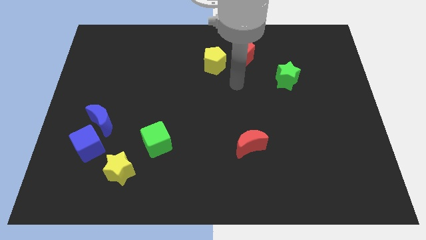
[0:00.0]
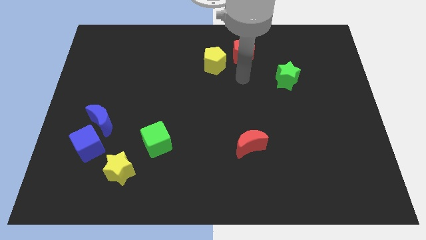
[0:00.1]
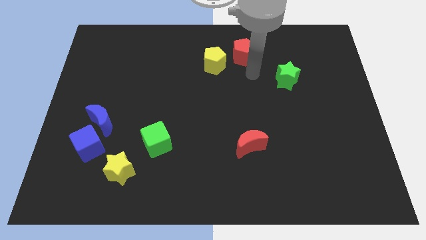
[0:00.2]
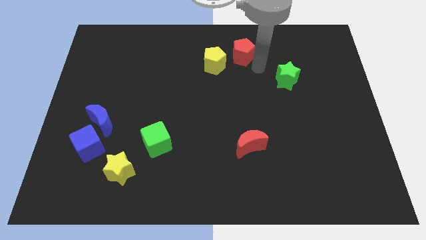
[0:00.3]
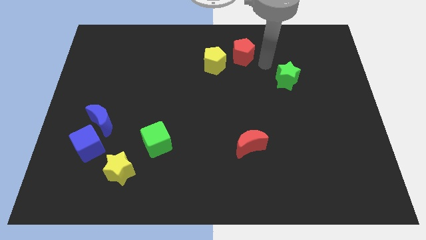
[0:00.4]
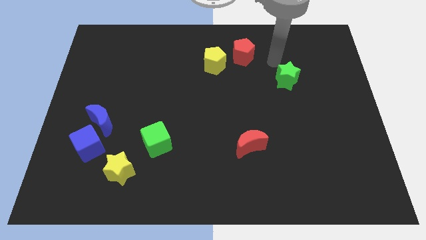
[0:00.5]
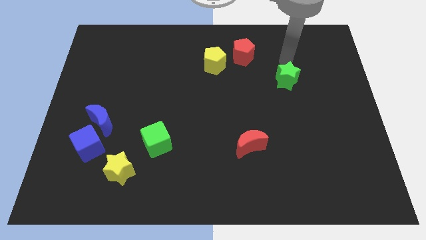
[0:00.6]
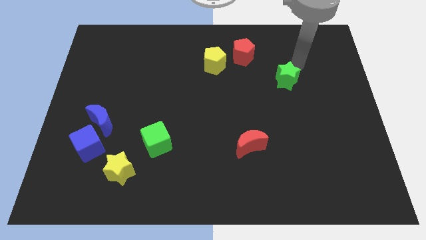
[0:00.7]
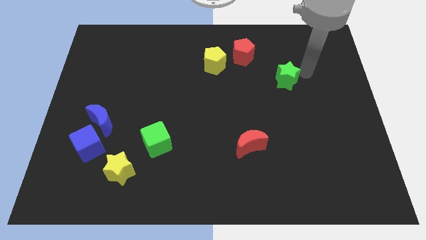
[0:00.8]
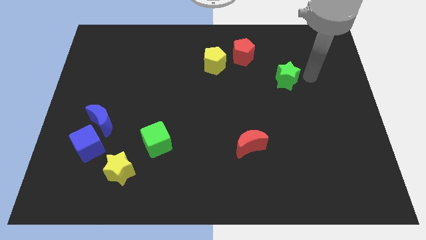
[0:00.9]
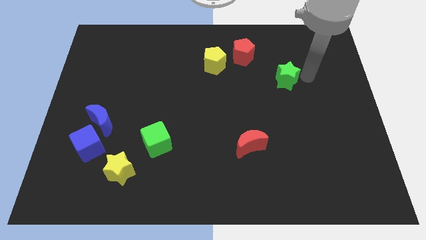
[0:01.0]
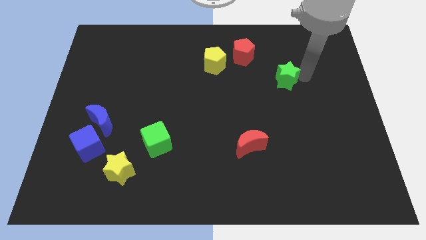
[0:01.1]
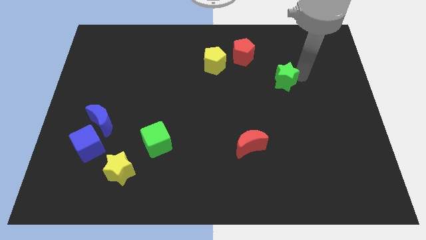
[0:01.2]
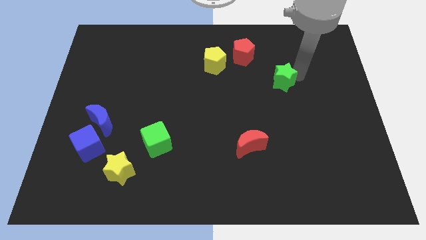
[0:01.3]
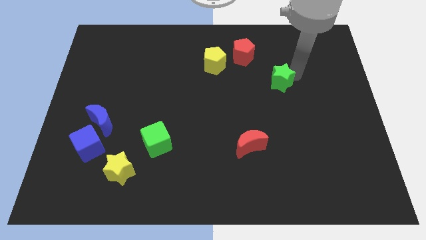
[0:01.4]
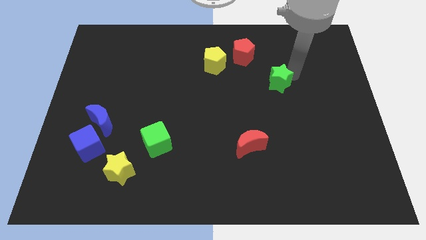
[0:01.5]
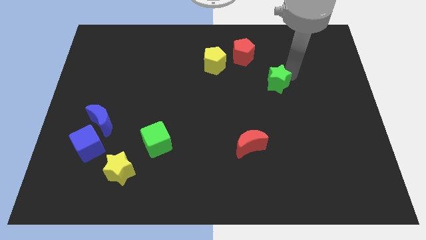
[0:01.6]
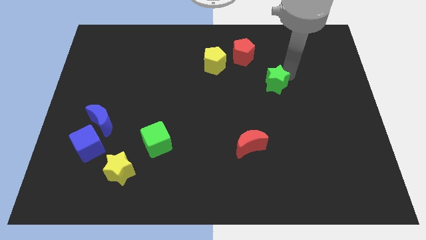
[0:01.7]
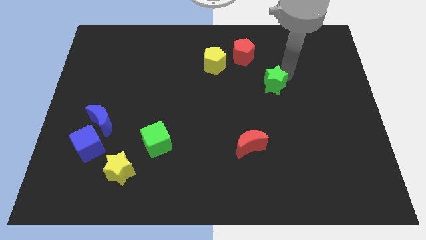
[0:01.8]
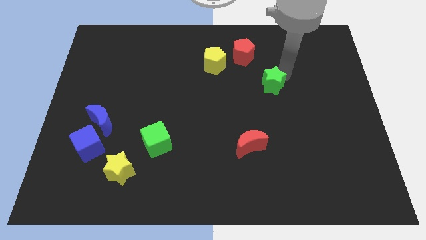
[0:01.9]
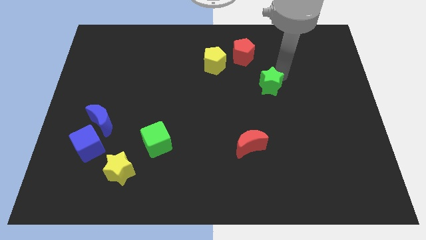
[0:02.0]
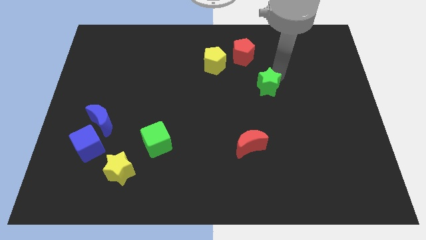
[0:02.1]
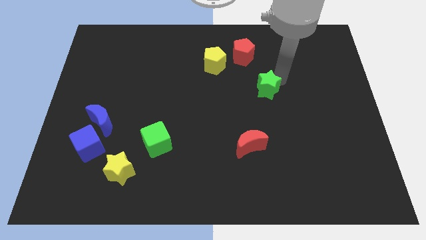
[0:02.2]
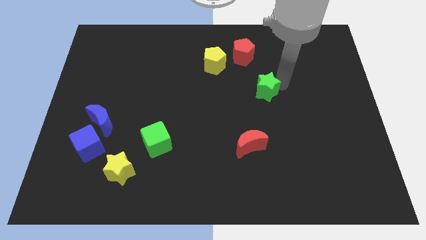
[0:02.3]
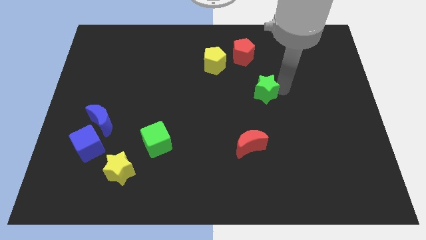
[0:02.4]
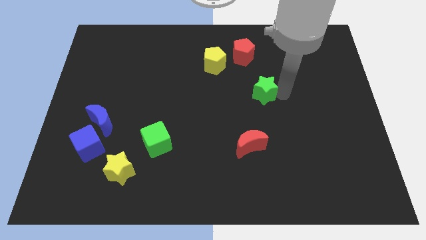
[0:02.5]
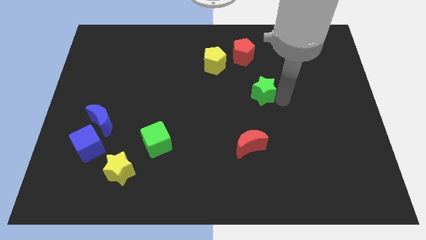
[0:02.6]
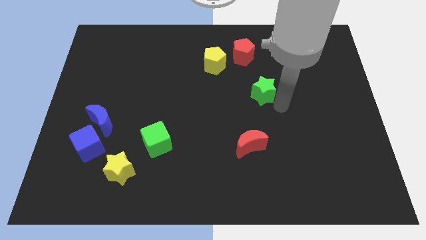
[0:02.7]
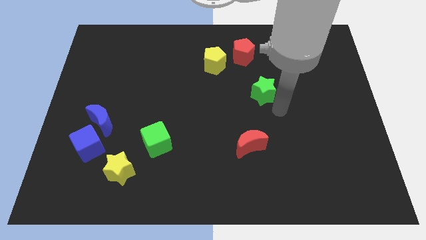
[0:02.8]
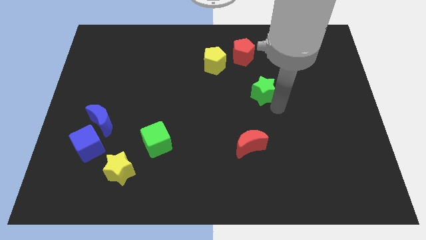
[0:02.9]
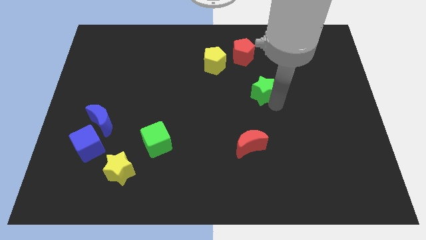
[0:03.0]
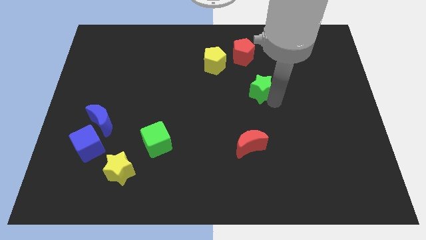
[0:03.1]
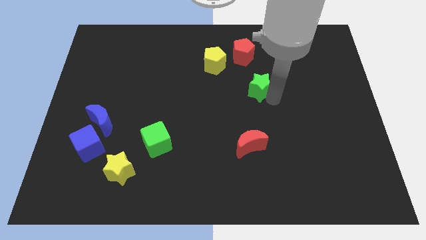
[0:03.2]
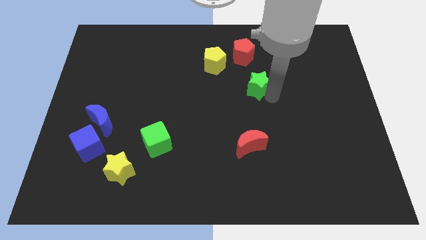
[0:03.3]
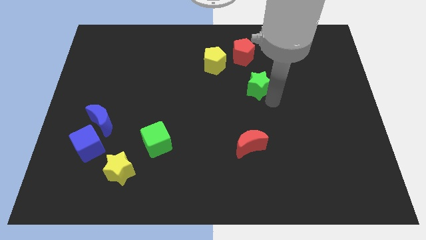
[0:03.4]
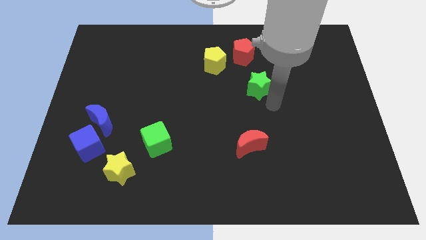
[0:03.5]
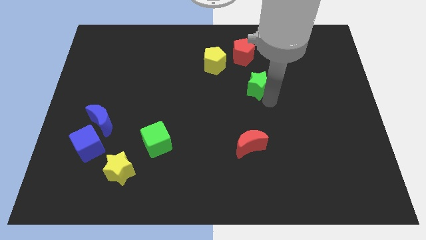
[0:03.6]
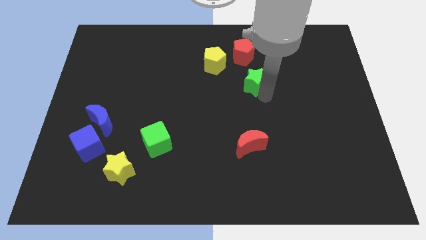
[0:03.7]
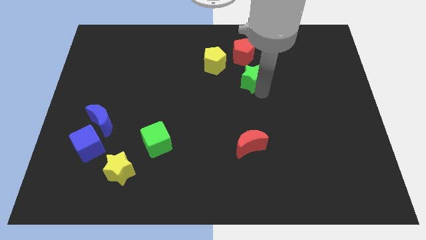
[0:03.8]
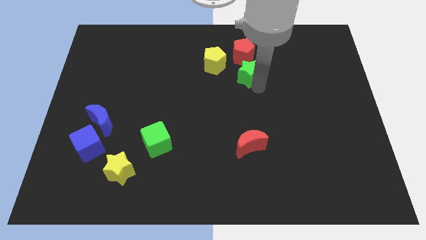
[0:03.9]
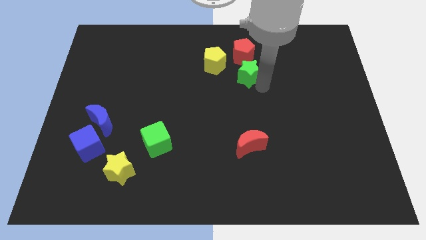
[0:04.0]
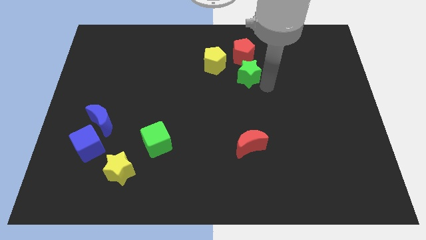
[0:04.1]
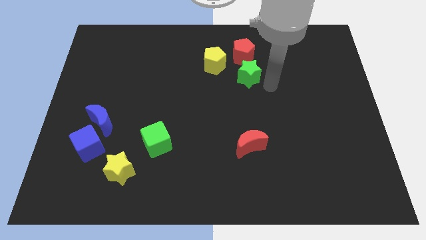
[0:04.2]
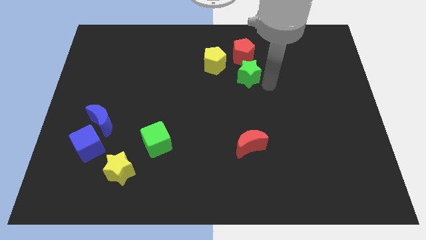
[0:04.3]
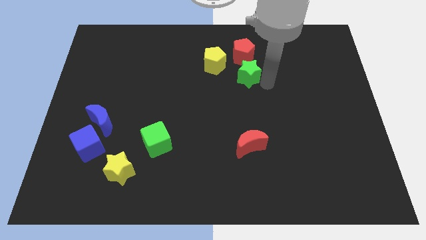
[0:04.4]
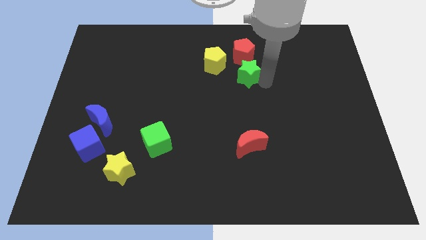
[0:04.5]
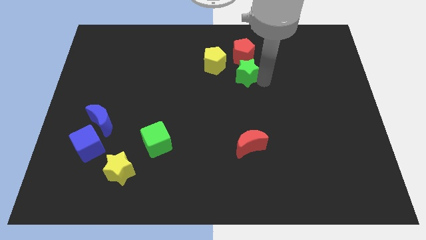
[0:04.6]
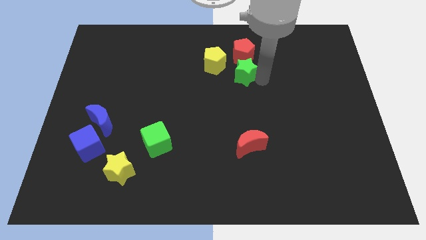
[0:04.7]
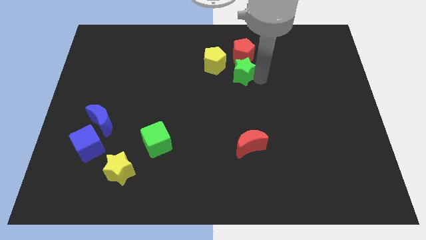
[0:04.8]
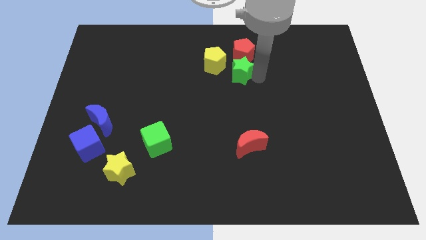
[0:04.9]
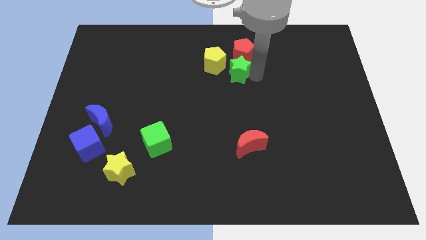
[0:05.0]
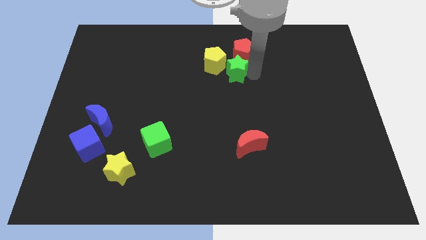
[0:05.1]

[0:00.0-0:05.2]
push the green star close to the yellow pentagon

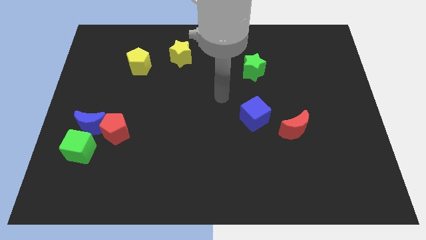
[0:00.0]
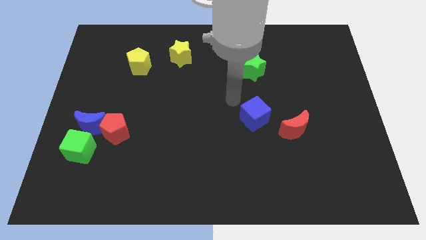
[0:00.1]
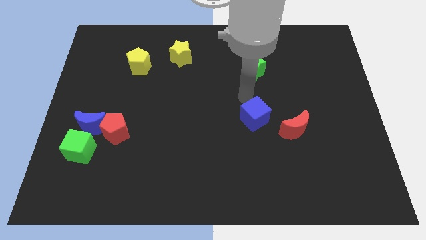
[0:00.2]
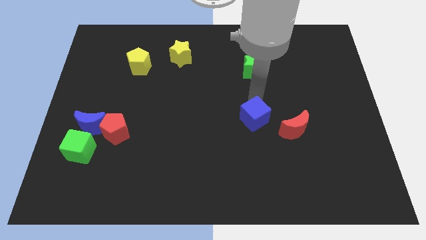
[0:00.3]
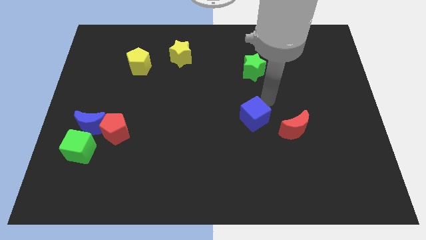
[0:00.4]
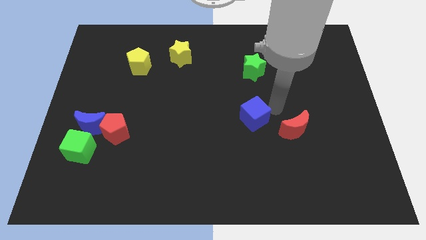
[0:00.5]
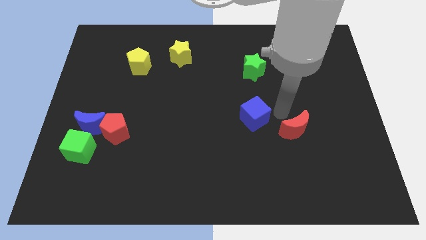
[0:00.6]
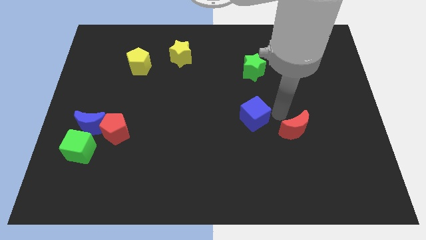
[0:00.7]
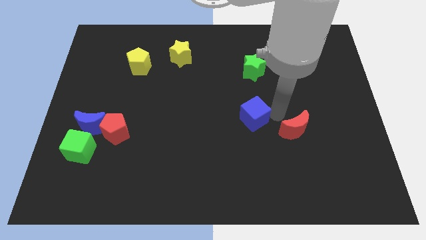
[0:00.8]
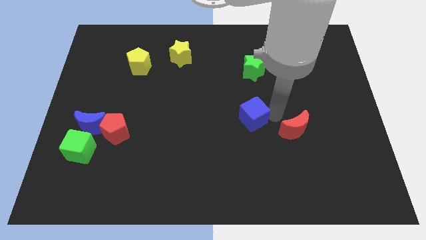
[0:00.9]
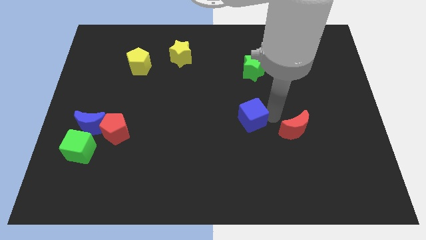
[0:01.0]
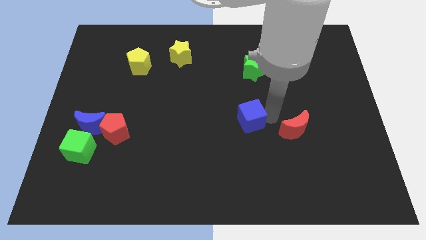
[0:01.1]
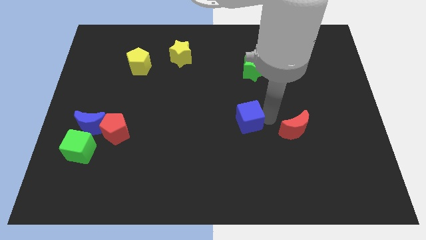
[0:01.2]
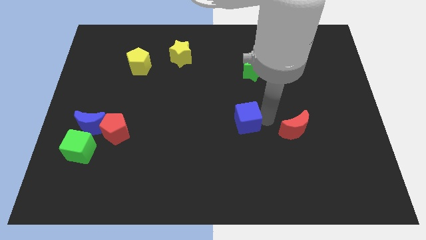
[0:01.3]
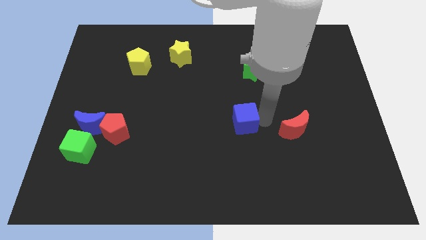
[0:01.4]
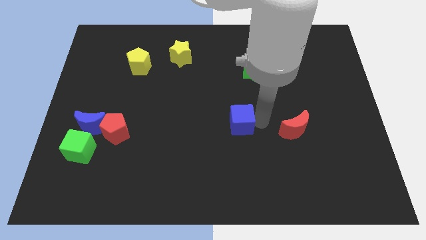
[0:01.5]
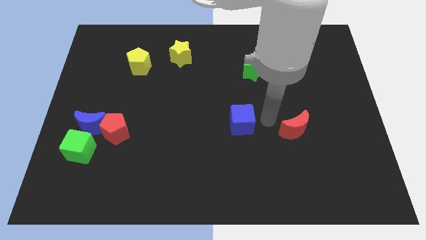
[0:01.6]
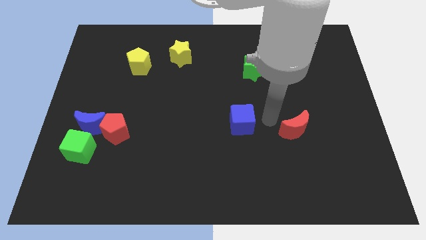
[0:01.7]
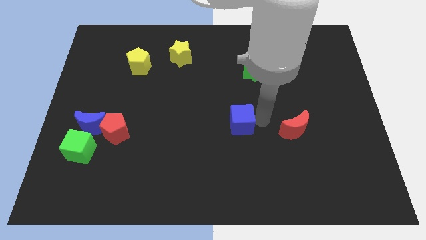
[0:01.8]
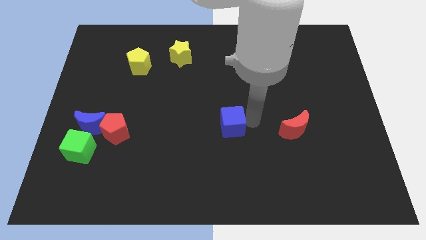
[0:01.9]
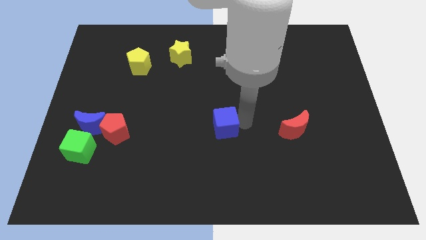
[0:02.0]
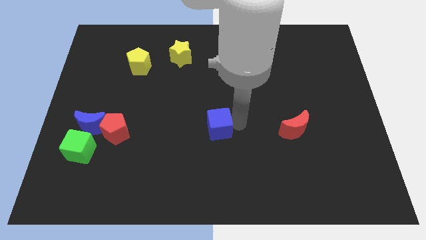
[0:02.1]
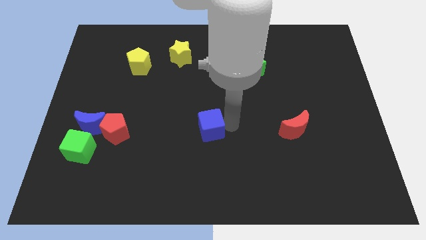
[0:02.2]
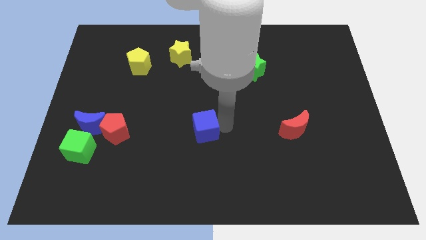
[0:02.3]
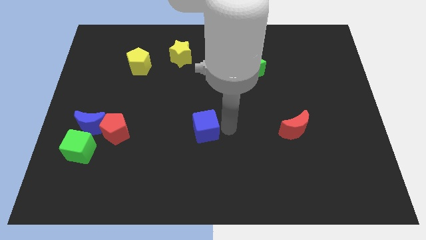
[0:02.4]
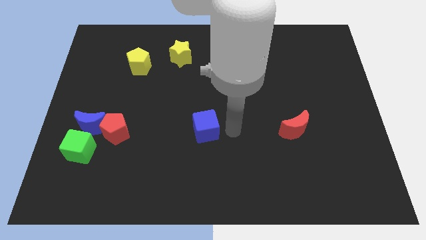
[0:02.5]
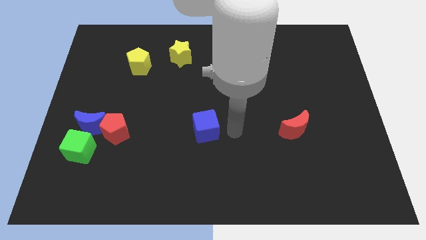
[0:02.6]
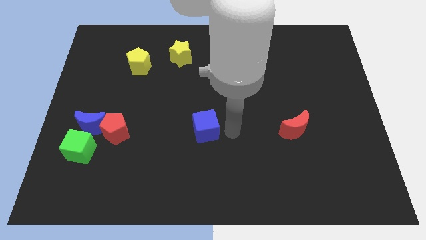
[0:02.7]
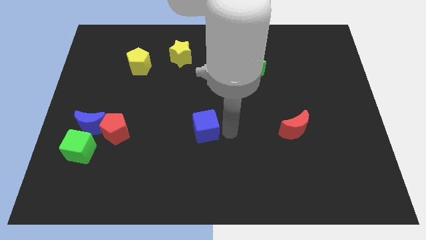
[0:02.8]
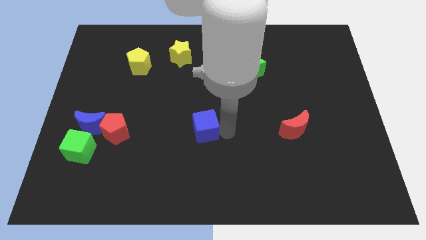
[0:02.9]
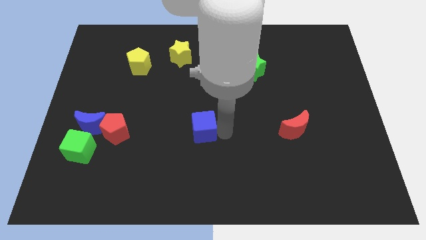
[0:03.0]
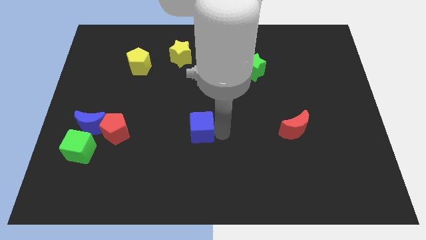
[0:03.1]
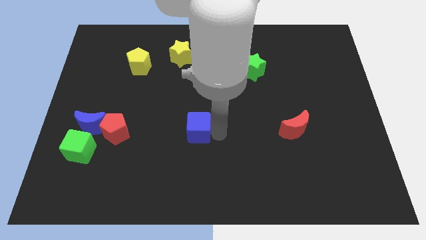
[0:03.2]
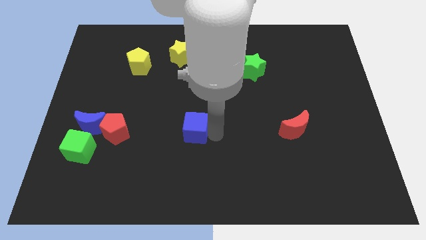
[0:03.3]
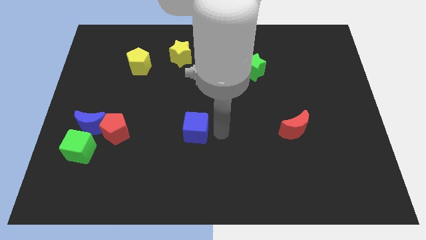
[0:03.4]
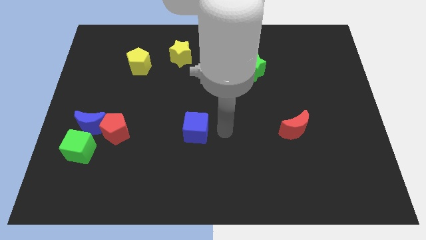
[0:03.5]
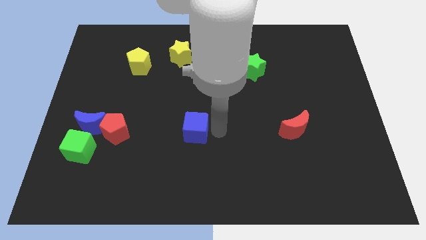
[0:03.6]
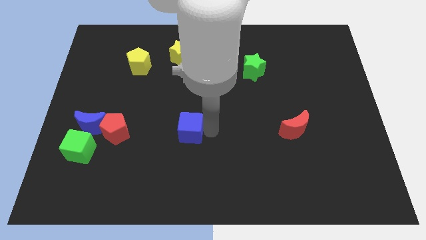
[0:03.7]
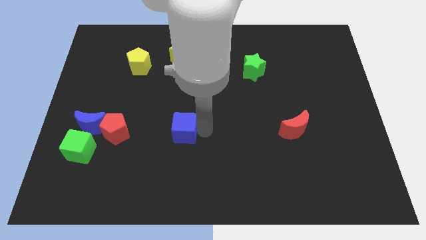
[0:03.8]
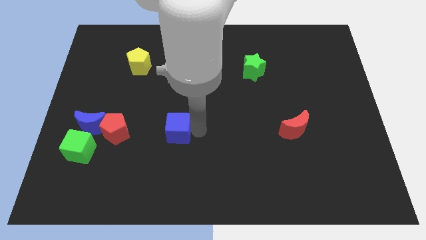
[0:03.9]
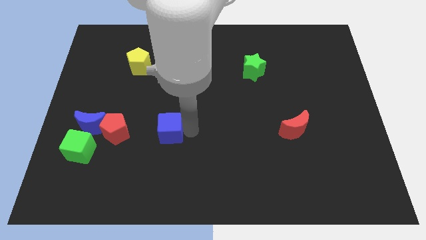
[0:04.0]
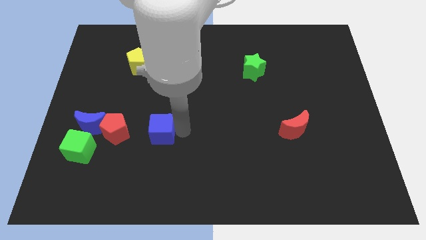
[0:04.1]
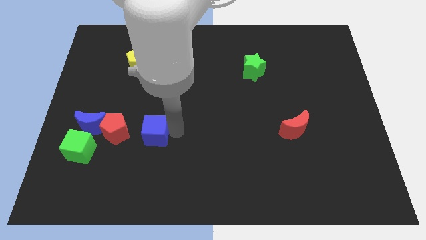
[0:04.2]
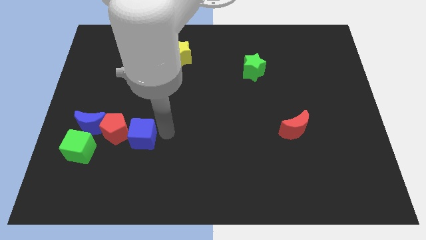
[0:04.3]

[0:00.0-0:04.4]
move the blue cube next to the red pentagon
